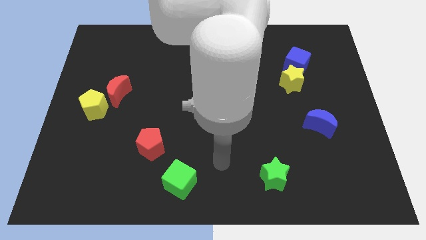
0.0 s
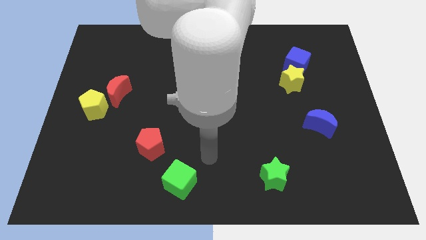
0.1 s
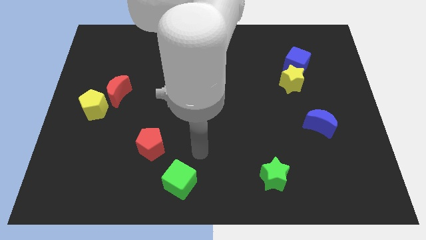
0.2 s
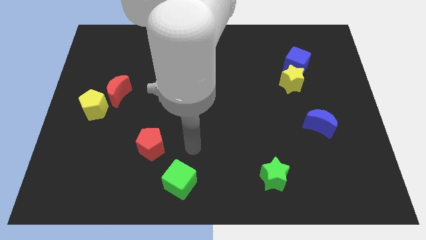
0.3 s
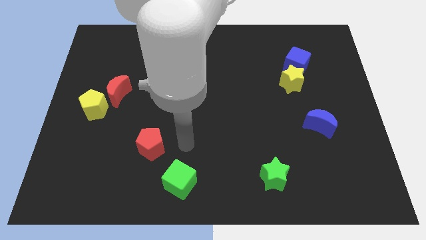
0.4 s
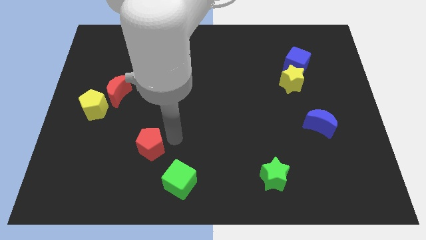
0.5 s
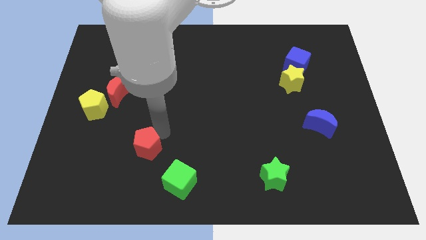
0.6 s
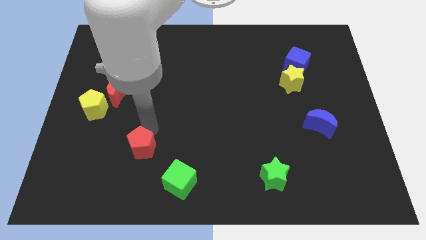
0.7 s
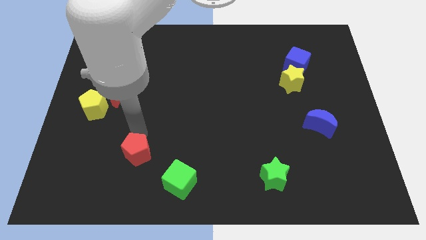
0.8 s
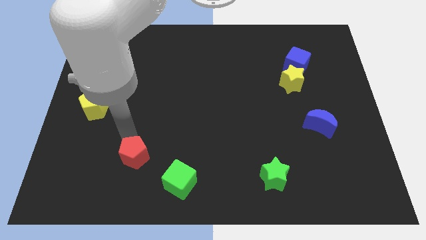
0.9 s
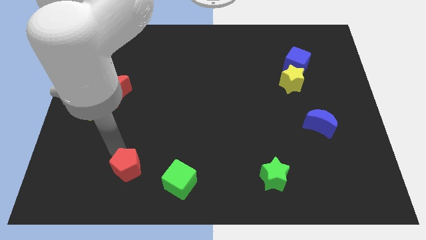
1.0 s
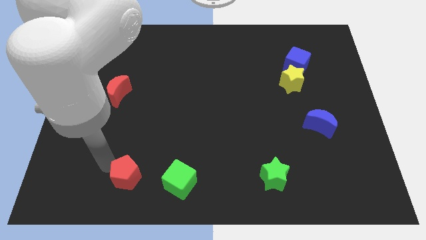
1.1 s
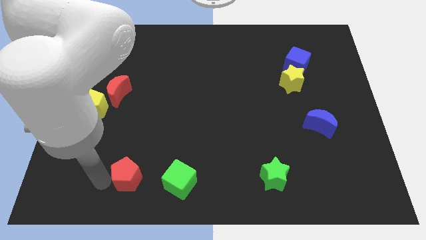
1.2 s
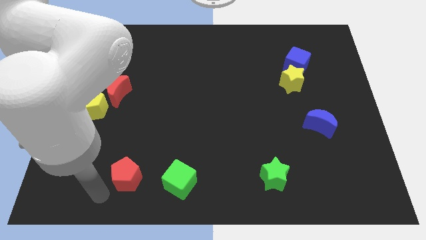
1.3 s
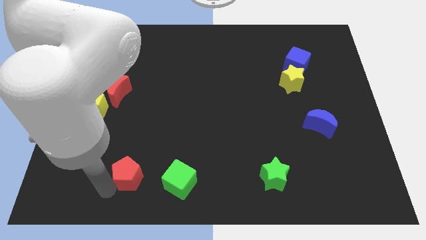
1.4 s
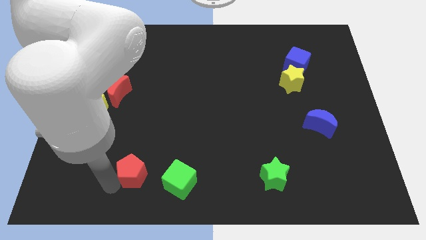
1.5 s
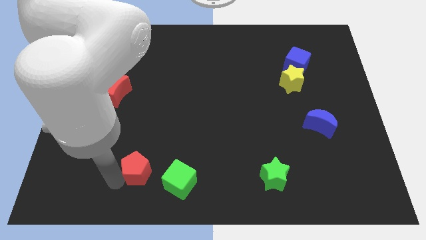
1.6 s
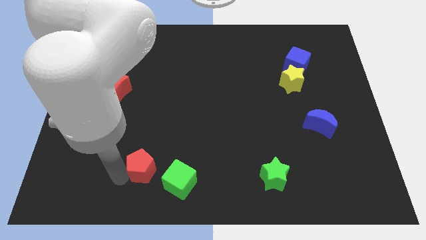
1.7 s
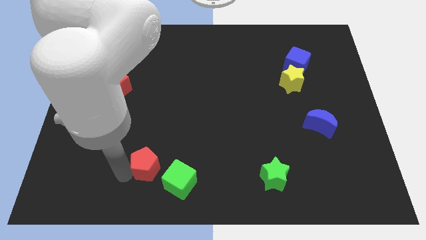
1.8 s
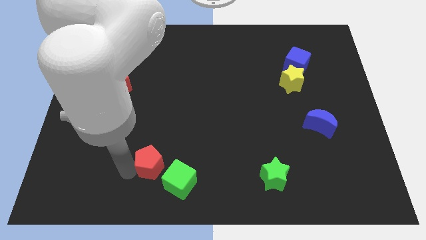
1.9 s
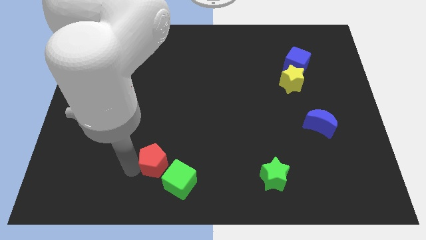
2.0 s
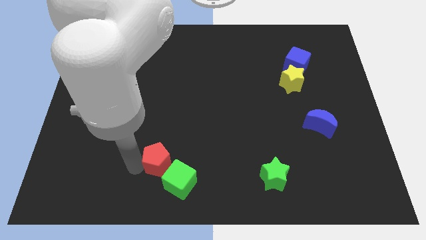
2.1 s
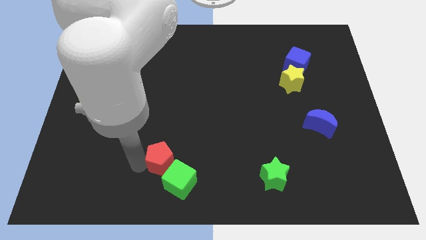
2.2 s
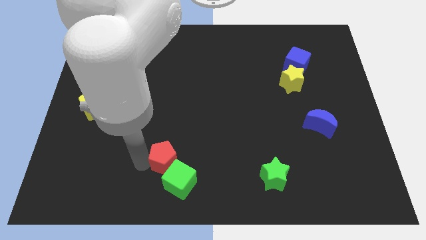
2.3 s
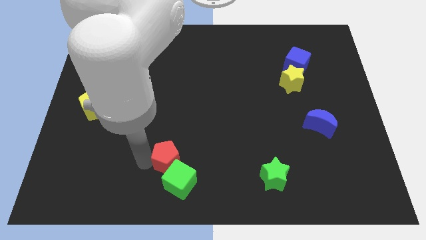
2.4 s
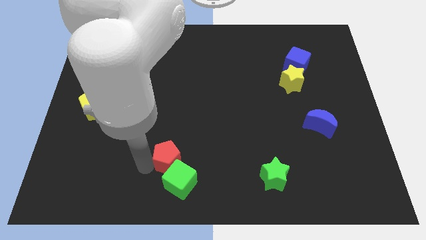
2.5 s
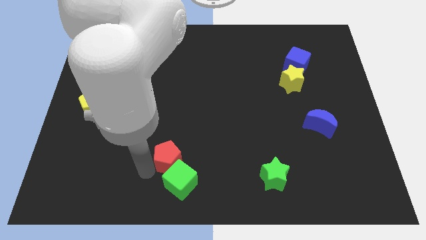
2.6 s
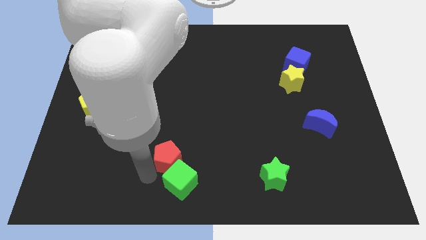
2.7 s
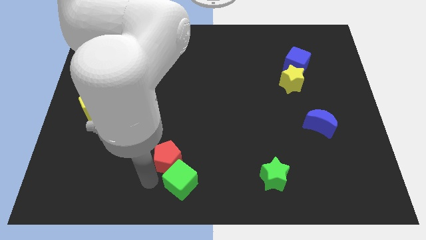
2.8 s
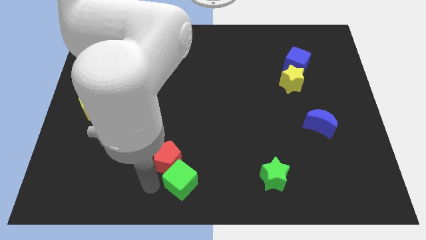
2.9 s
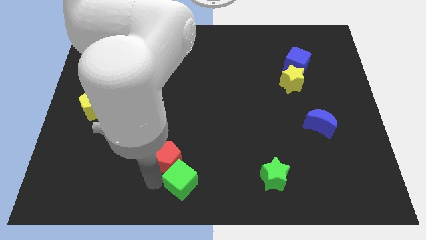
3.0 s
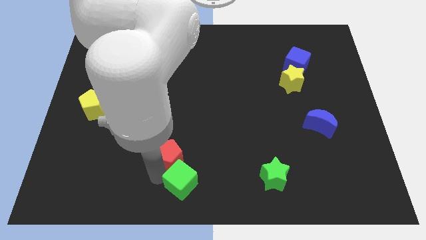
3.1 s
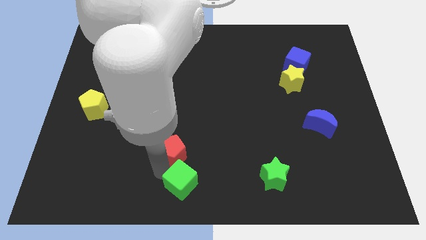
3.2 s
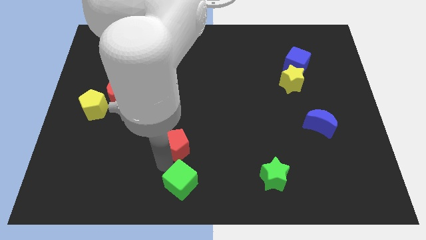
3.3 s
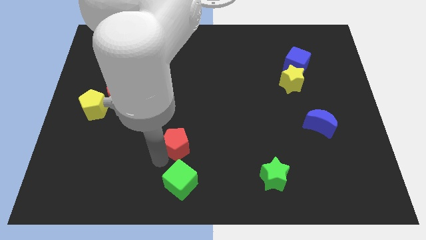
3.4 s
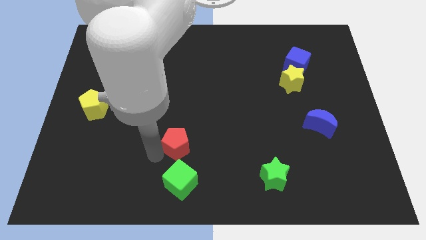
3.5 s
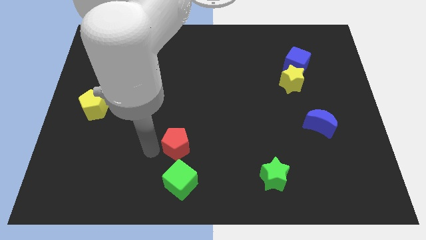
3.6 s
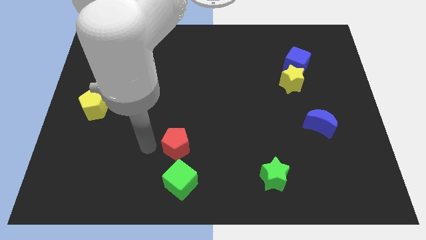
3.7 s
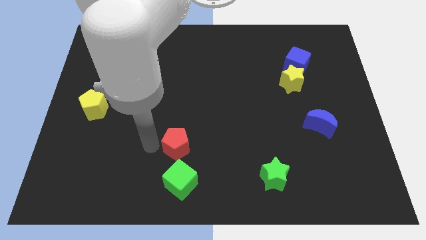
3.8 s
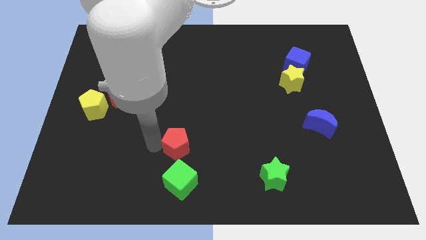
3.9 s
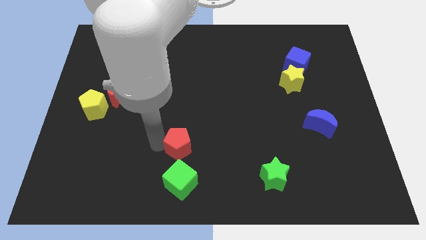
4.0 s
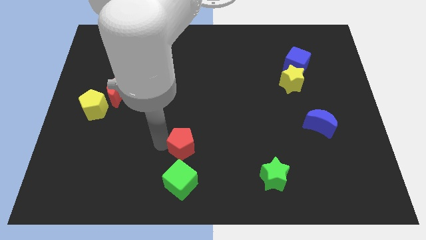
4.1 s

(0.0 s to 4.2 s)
push the red pentagon a bit right

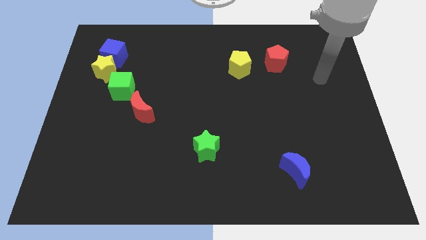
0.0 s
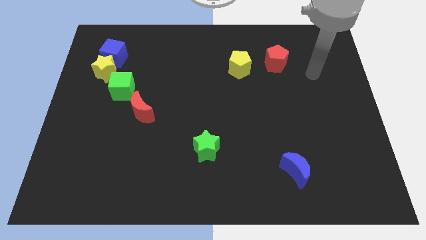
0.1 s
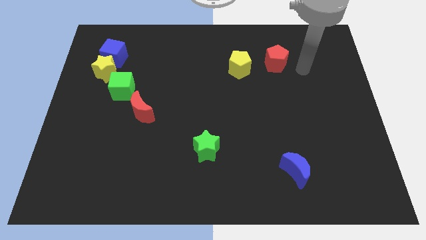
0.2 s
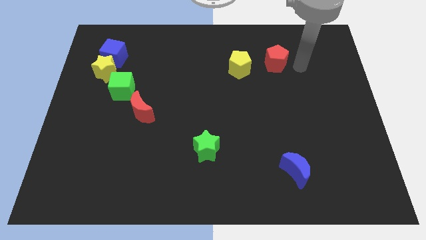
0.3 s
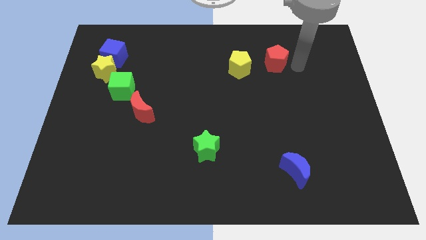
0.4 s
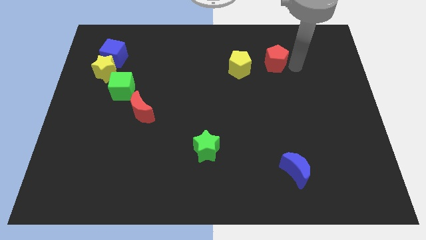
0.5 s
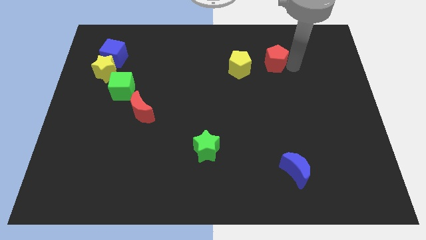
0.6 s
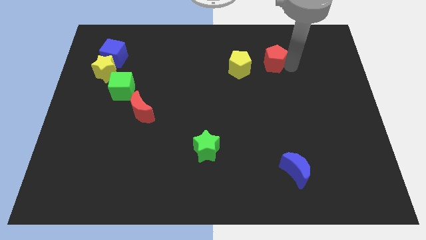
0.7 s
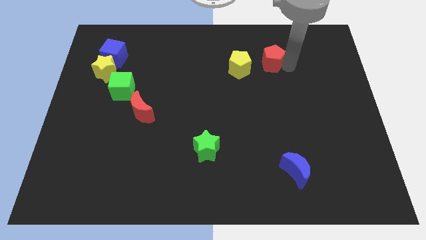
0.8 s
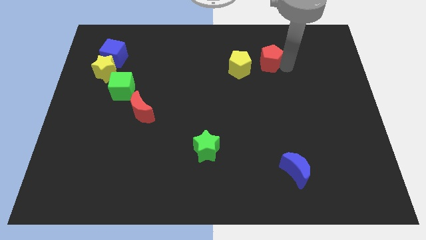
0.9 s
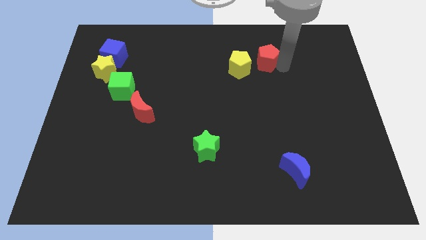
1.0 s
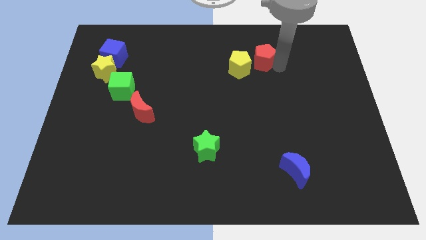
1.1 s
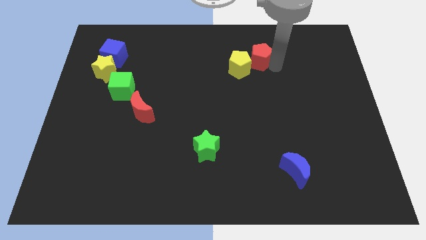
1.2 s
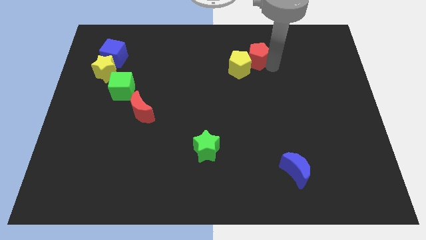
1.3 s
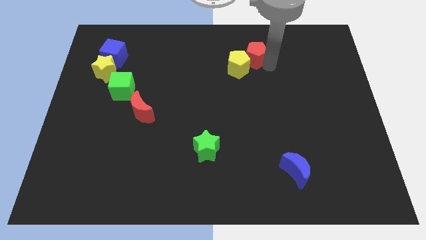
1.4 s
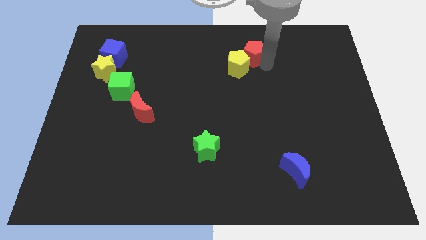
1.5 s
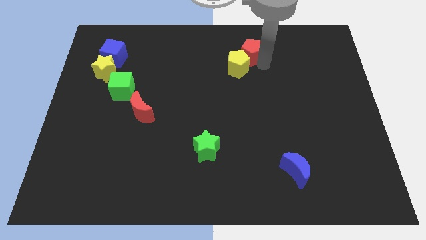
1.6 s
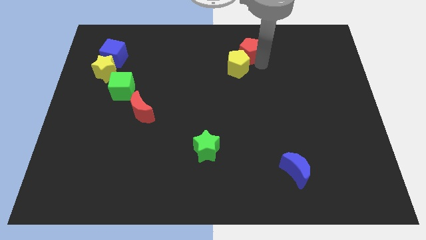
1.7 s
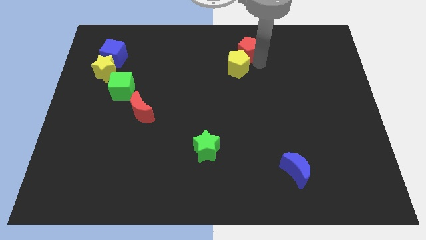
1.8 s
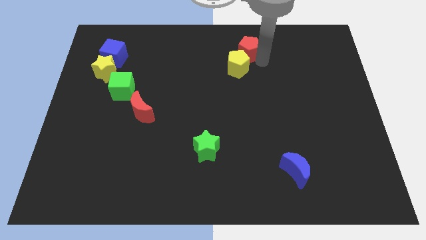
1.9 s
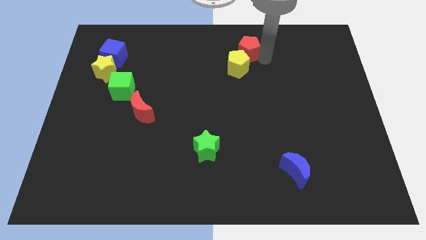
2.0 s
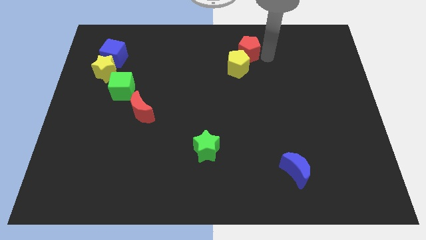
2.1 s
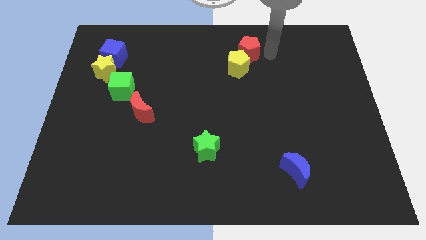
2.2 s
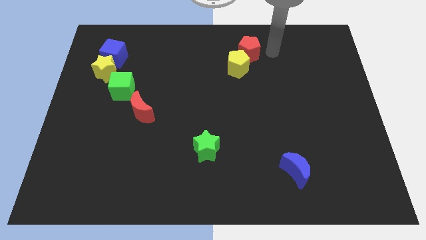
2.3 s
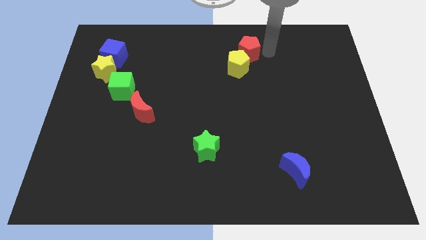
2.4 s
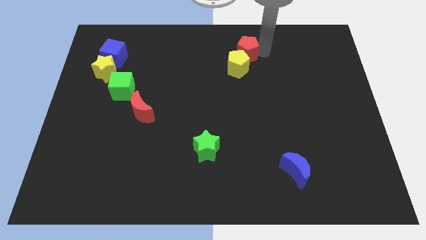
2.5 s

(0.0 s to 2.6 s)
slide the red pentagon to the left a little

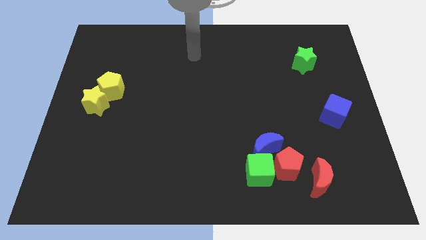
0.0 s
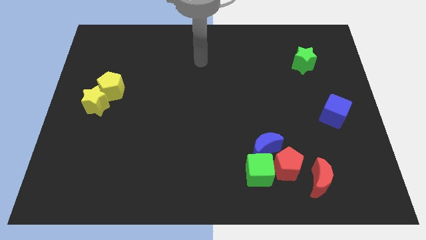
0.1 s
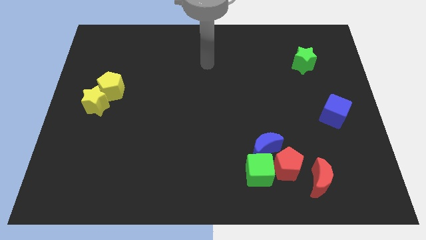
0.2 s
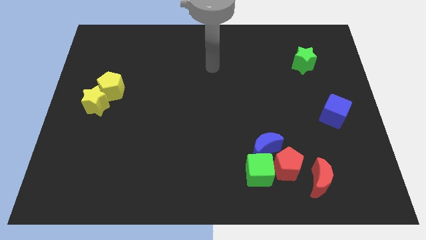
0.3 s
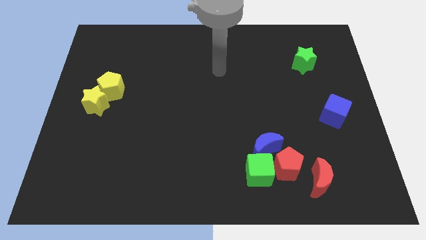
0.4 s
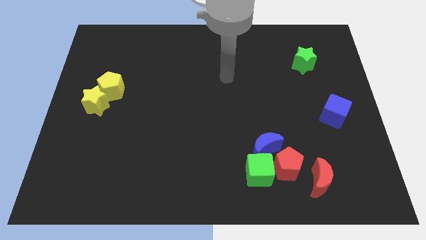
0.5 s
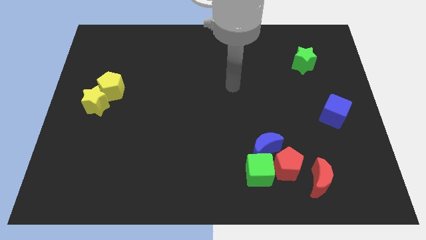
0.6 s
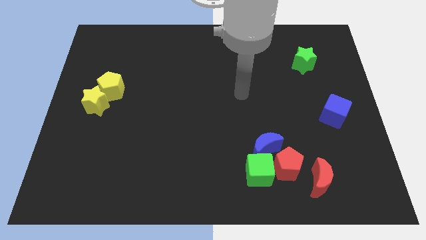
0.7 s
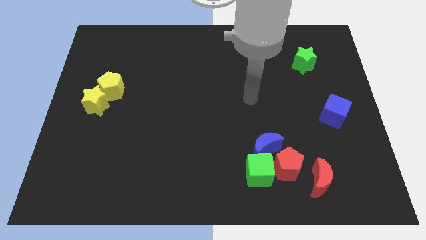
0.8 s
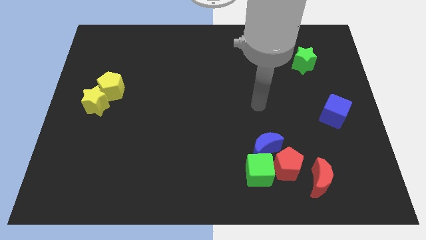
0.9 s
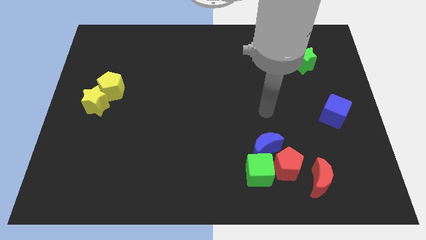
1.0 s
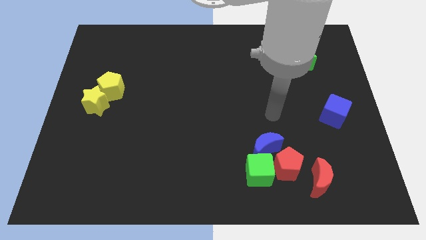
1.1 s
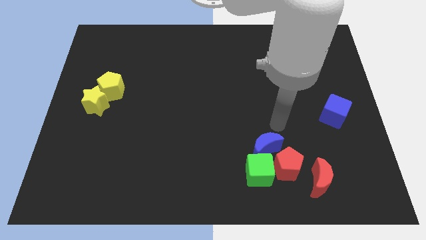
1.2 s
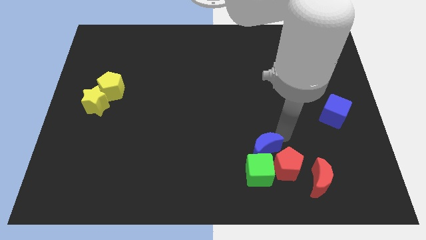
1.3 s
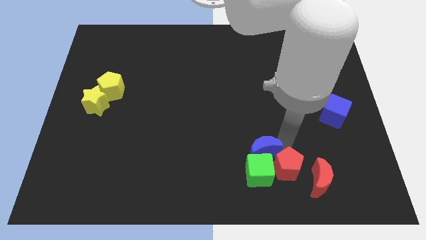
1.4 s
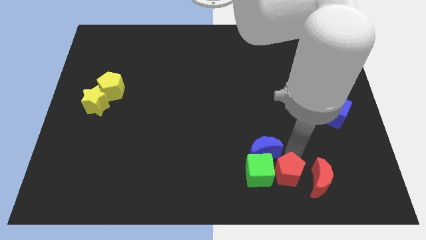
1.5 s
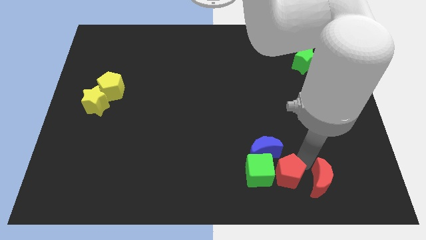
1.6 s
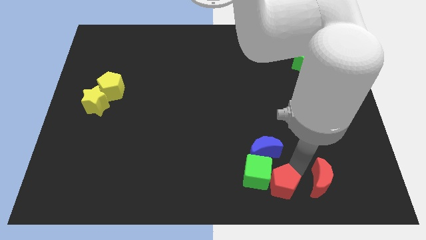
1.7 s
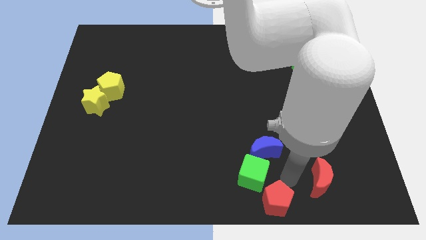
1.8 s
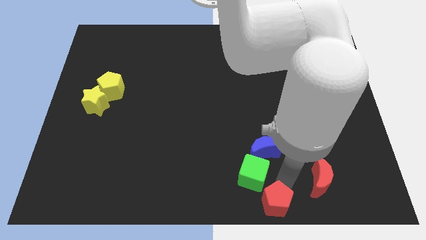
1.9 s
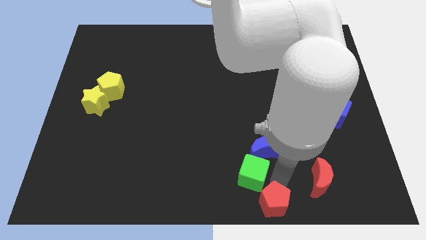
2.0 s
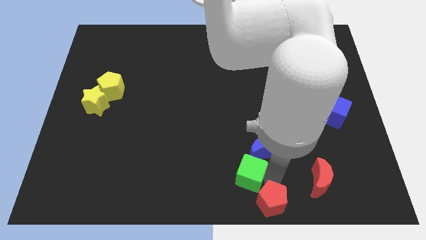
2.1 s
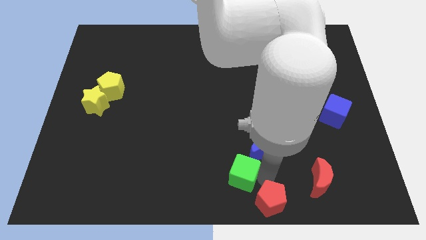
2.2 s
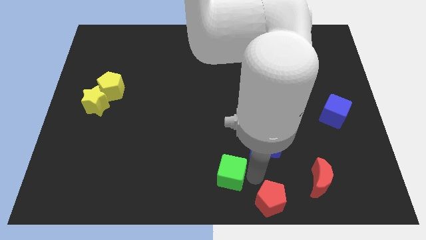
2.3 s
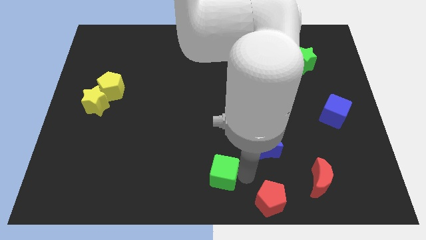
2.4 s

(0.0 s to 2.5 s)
push the green cube a little bit to the left
